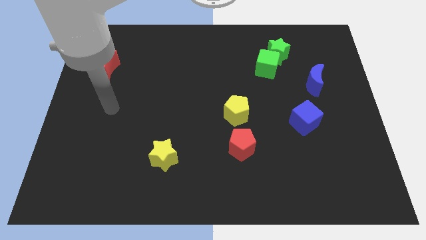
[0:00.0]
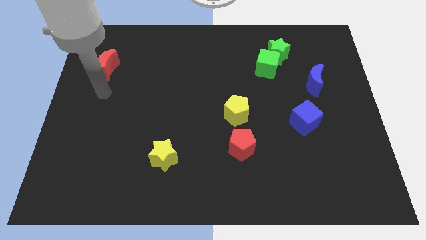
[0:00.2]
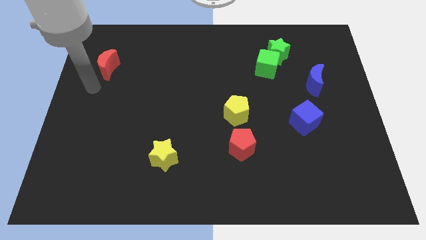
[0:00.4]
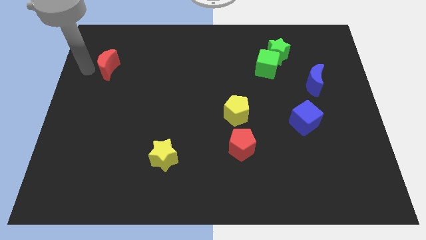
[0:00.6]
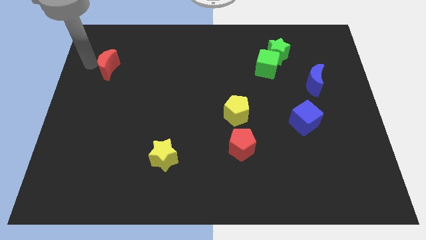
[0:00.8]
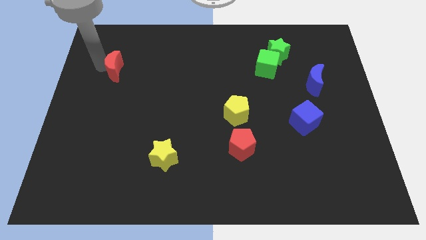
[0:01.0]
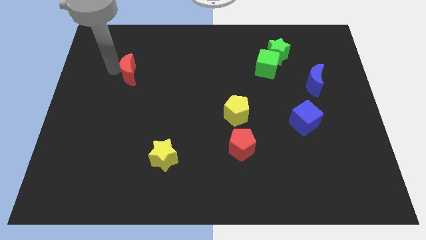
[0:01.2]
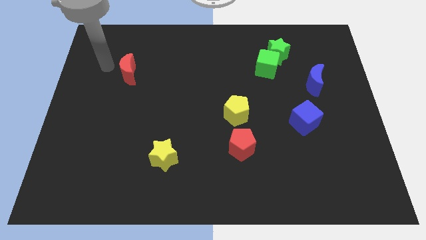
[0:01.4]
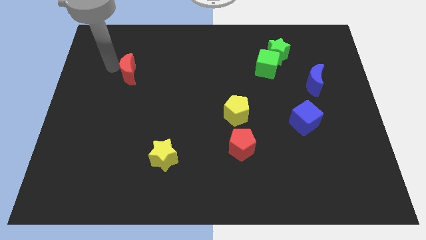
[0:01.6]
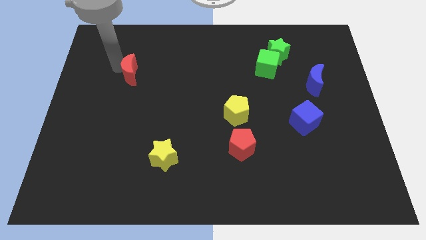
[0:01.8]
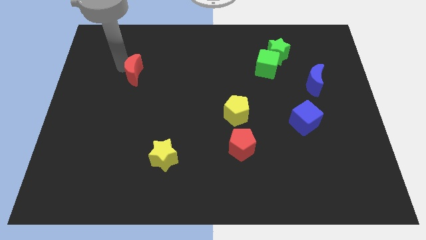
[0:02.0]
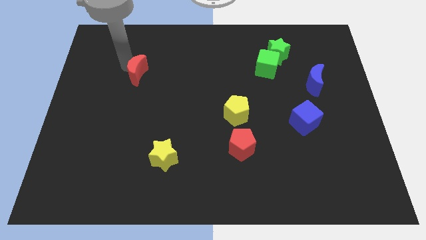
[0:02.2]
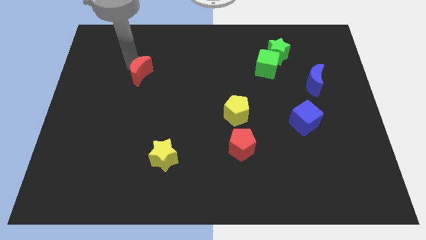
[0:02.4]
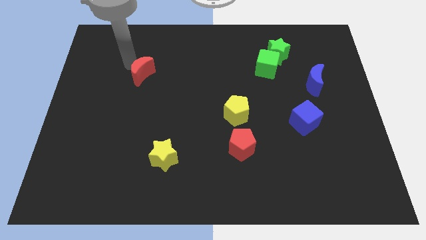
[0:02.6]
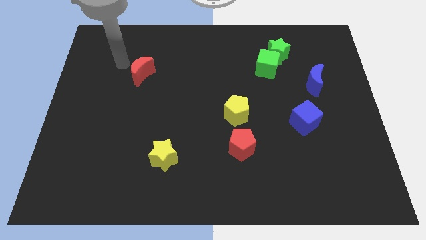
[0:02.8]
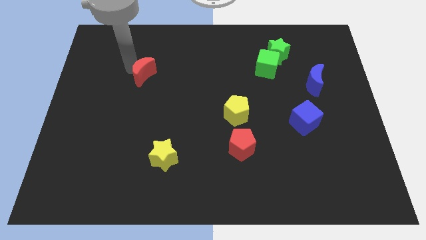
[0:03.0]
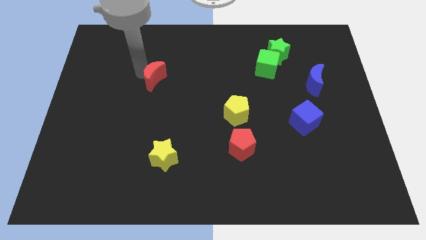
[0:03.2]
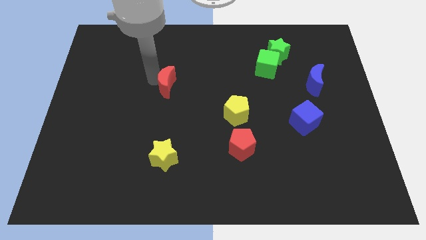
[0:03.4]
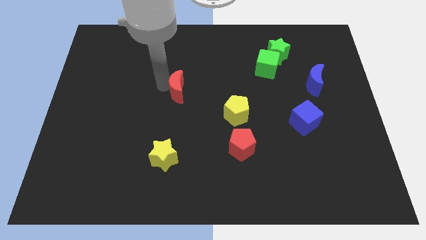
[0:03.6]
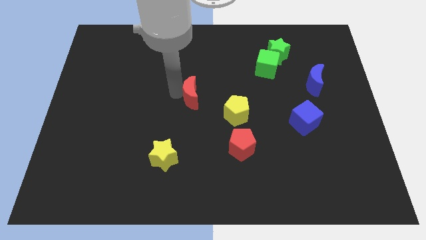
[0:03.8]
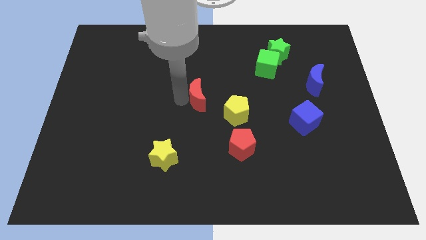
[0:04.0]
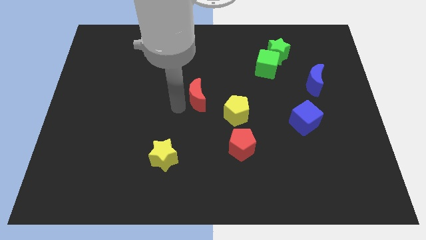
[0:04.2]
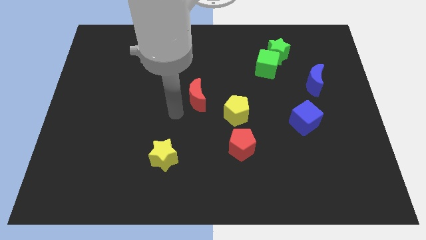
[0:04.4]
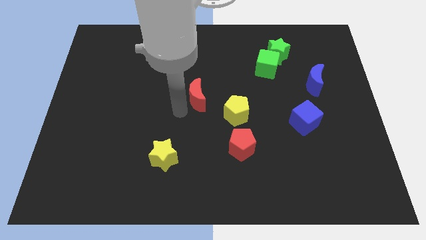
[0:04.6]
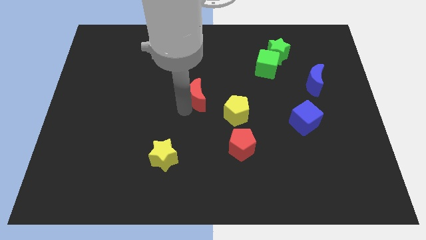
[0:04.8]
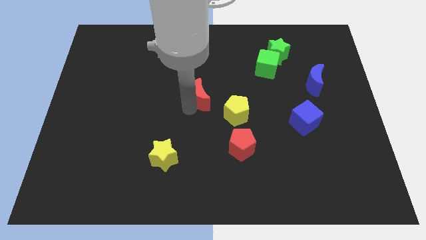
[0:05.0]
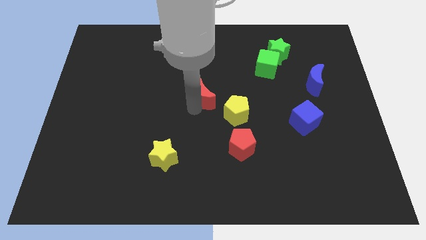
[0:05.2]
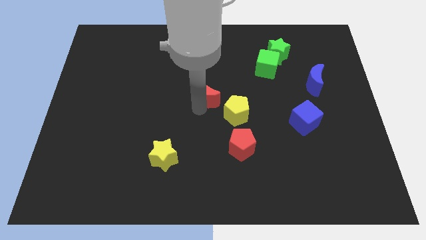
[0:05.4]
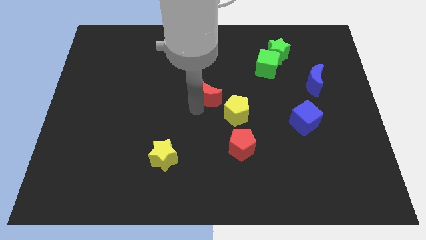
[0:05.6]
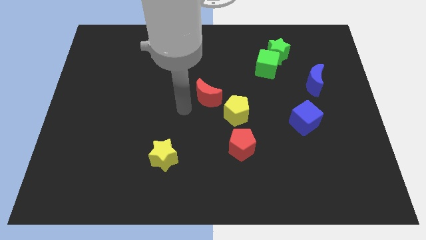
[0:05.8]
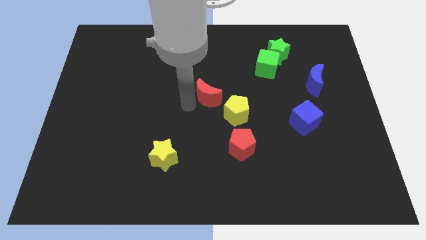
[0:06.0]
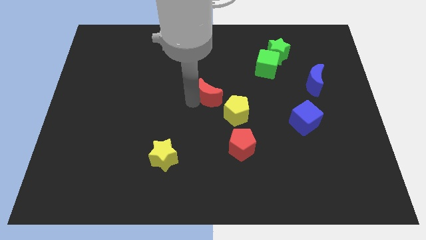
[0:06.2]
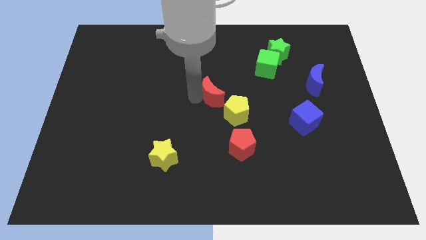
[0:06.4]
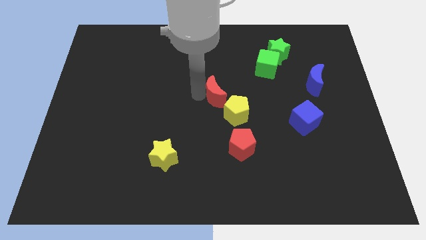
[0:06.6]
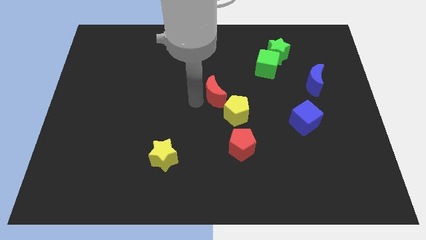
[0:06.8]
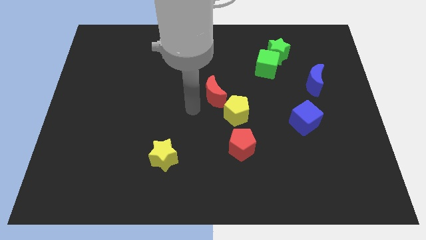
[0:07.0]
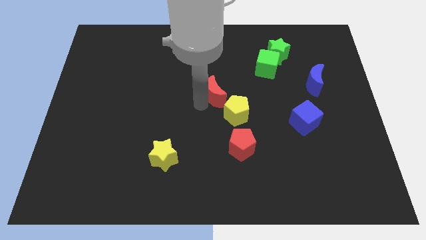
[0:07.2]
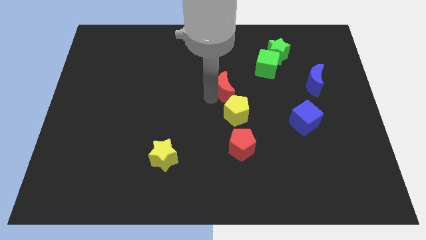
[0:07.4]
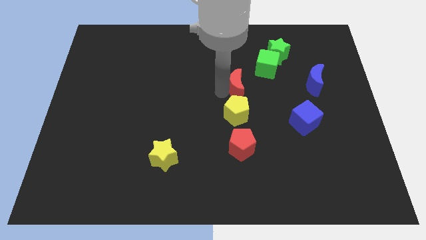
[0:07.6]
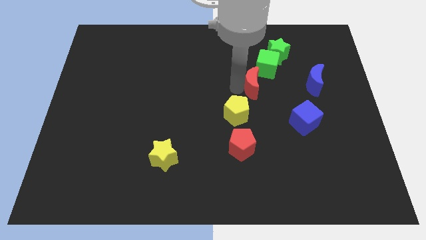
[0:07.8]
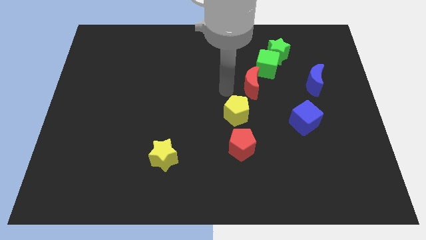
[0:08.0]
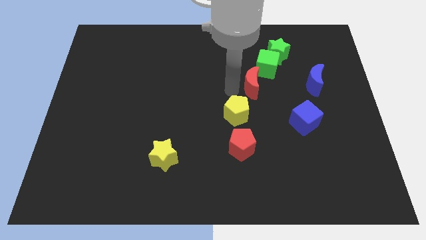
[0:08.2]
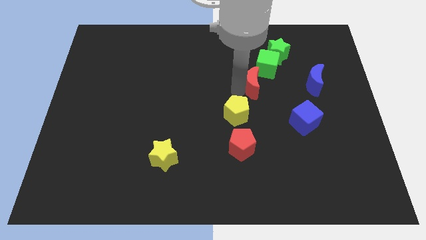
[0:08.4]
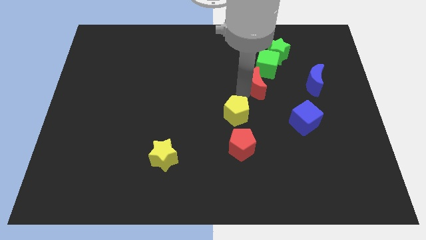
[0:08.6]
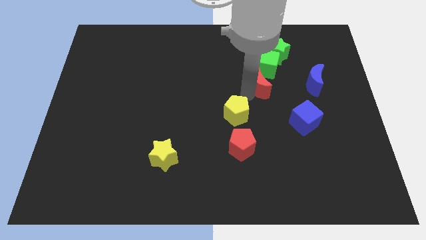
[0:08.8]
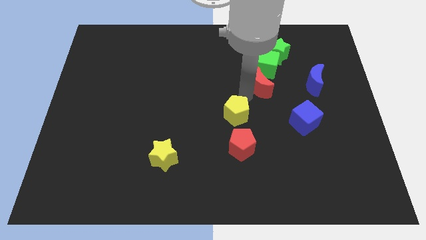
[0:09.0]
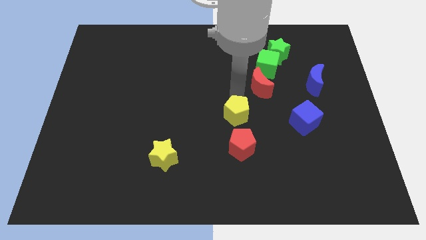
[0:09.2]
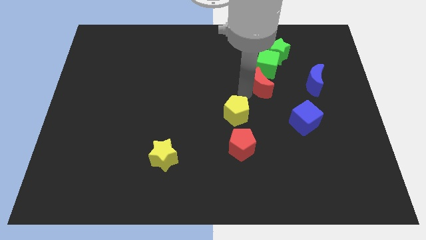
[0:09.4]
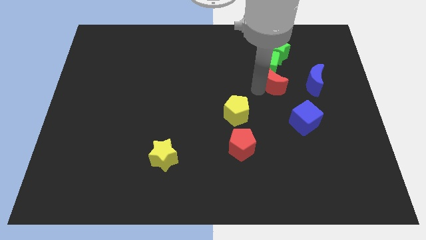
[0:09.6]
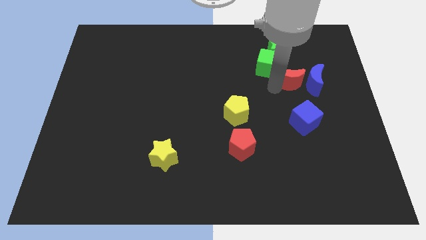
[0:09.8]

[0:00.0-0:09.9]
move the red moon diagonally up and to the left of the blue moon

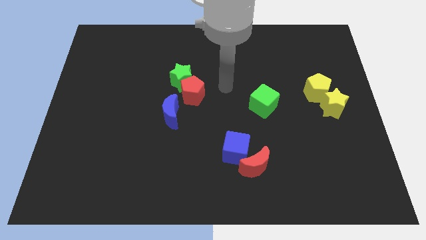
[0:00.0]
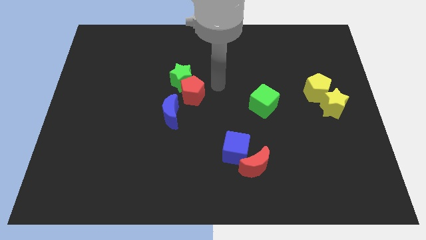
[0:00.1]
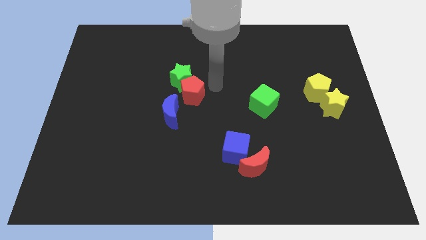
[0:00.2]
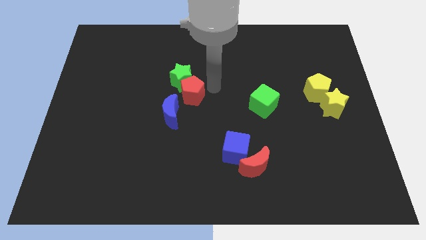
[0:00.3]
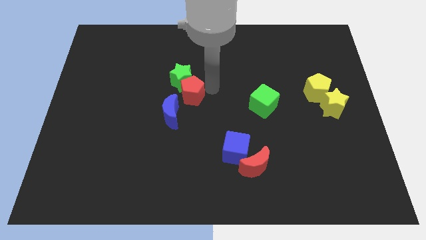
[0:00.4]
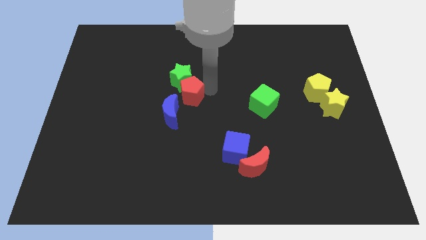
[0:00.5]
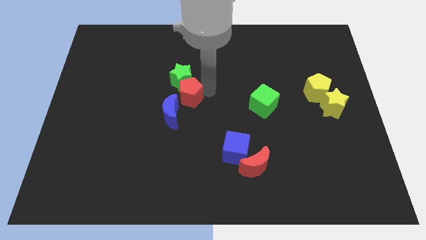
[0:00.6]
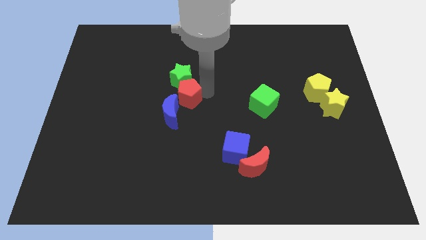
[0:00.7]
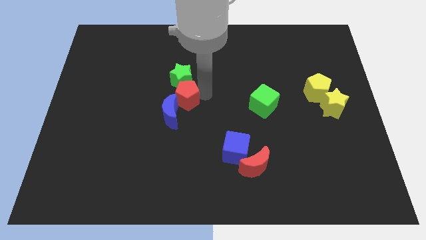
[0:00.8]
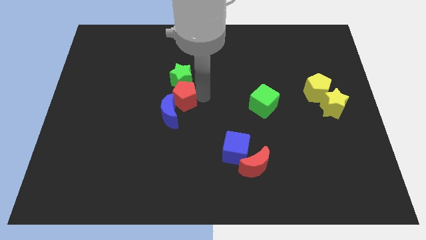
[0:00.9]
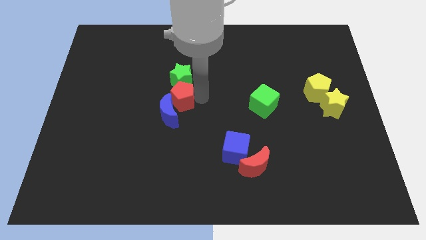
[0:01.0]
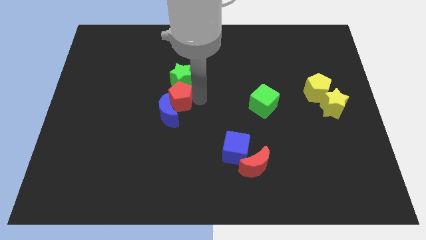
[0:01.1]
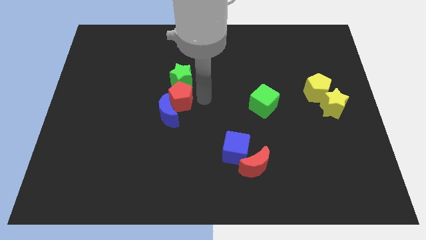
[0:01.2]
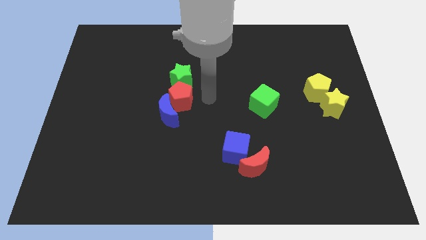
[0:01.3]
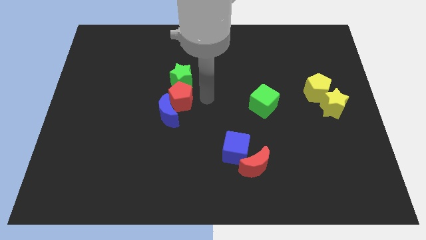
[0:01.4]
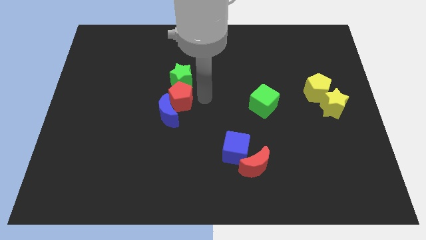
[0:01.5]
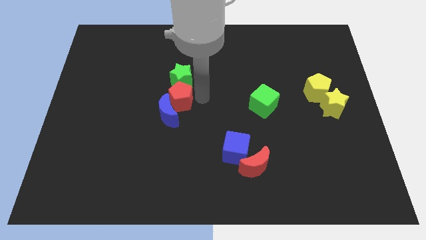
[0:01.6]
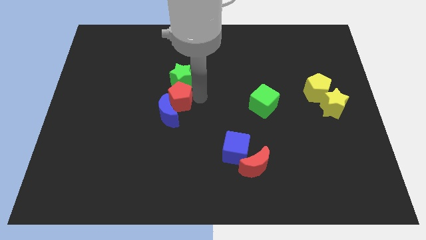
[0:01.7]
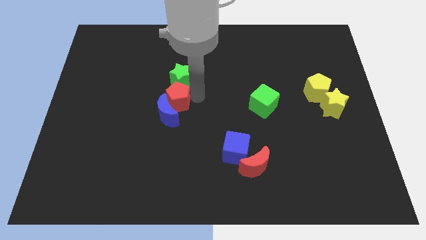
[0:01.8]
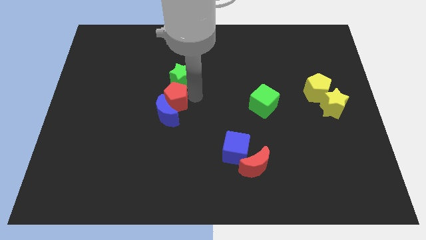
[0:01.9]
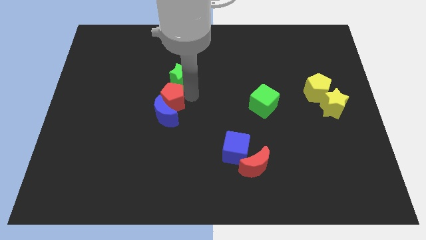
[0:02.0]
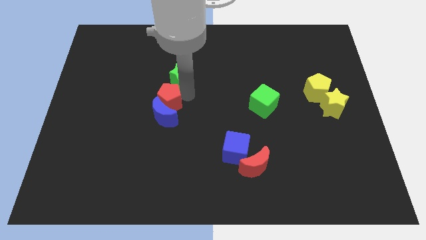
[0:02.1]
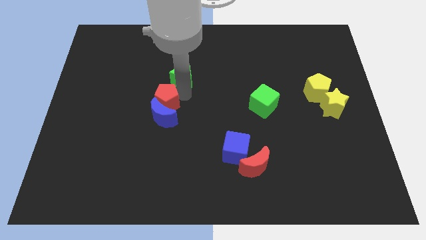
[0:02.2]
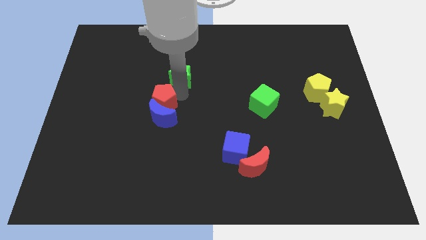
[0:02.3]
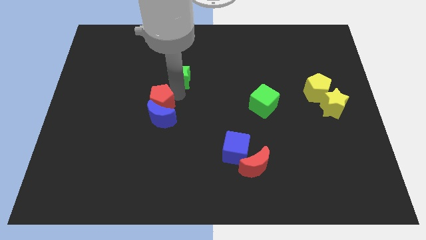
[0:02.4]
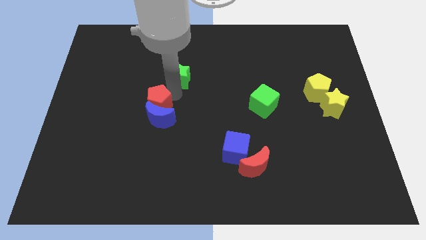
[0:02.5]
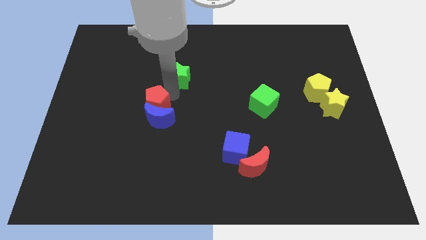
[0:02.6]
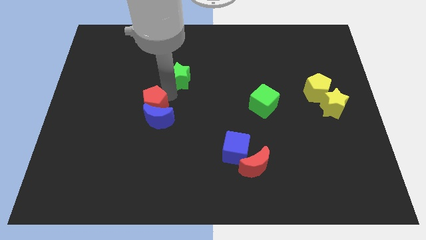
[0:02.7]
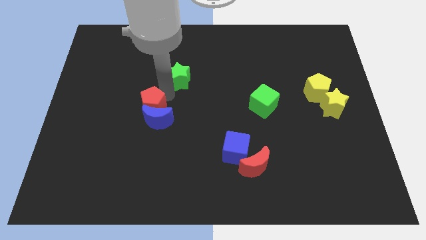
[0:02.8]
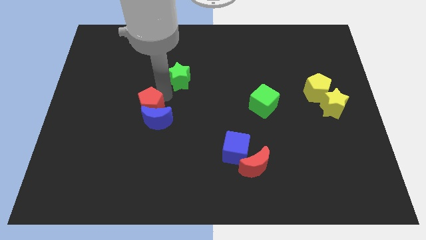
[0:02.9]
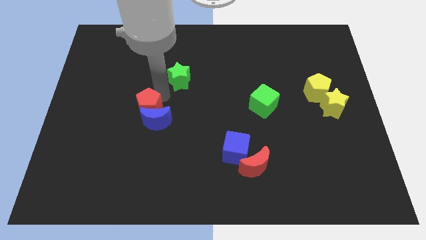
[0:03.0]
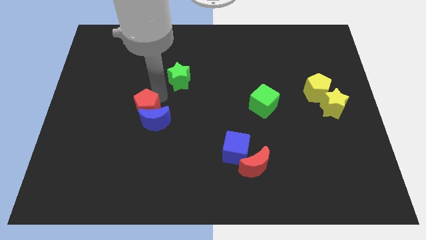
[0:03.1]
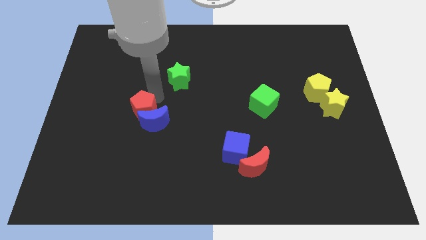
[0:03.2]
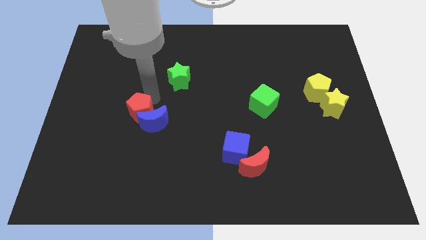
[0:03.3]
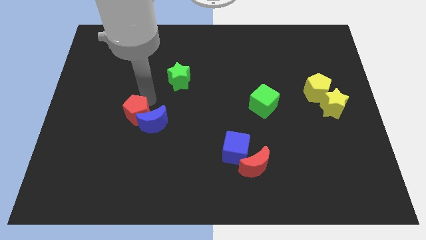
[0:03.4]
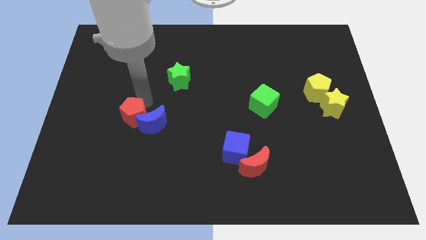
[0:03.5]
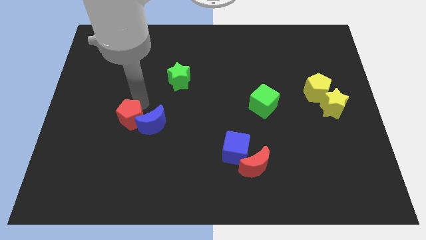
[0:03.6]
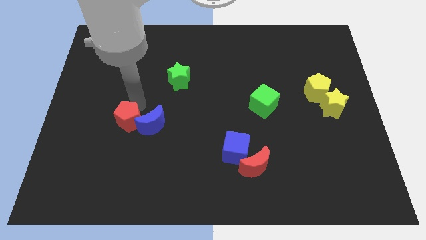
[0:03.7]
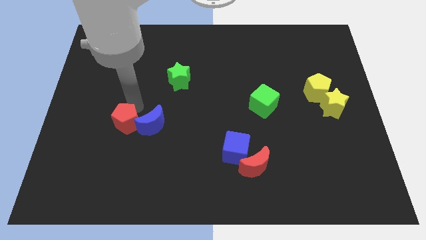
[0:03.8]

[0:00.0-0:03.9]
put the red pentagon to the bottom left side of the blue moon
